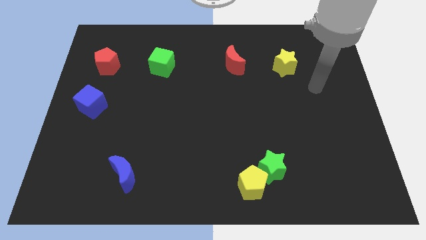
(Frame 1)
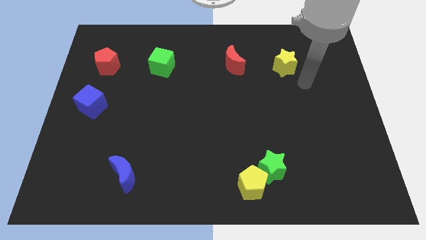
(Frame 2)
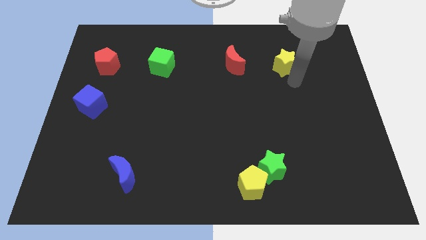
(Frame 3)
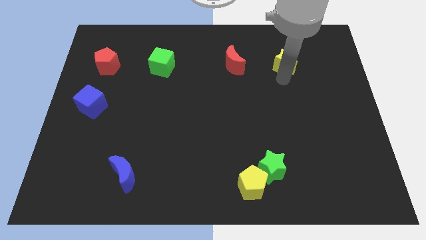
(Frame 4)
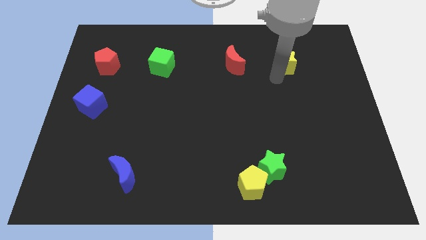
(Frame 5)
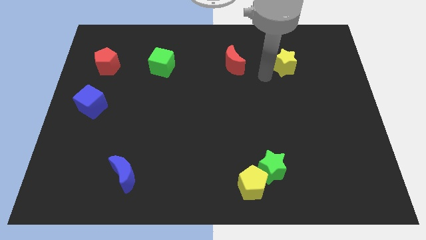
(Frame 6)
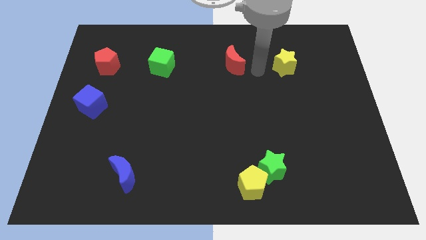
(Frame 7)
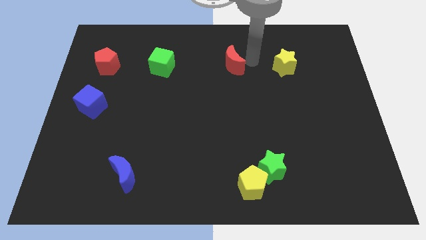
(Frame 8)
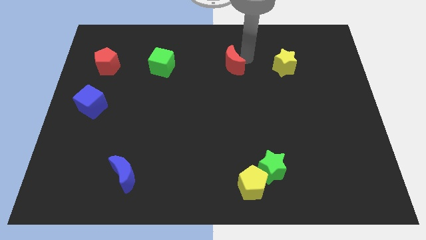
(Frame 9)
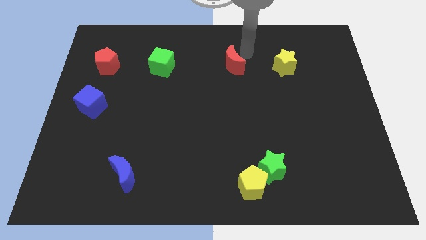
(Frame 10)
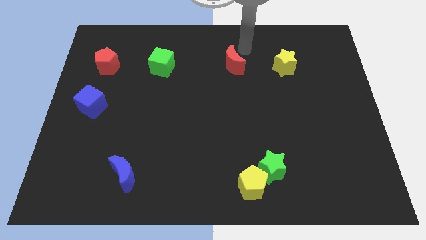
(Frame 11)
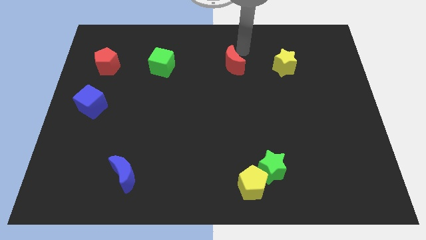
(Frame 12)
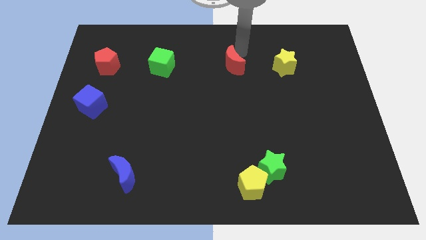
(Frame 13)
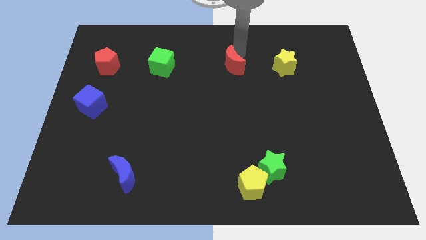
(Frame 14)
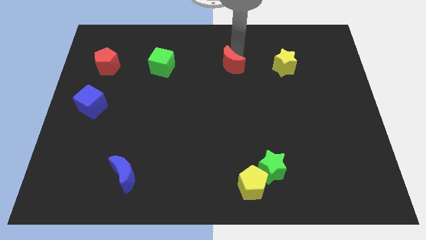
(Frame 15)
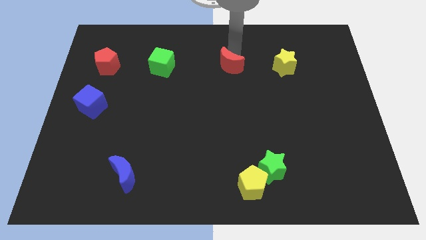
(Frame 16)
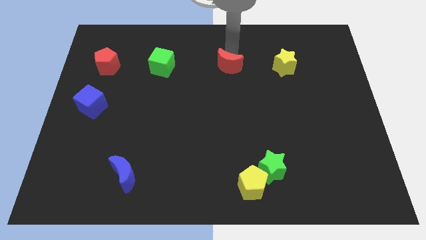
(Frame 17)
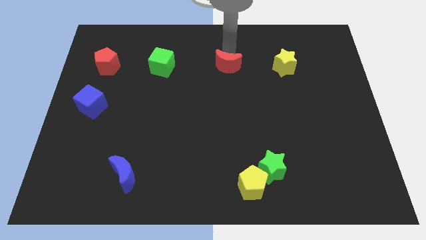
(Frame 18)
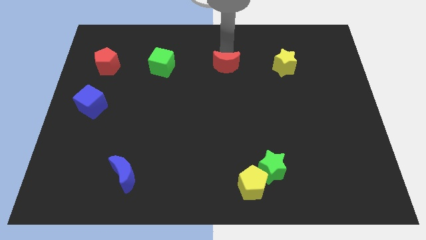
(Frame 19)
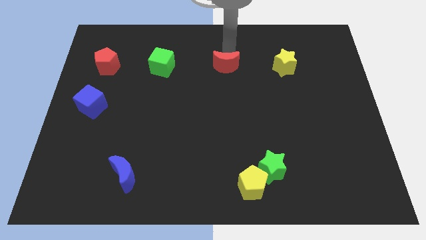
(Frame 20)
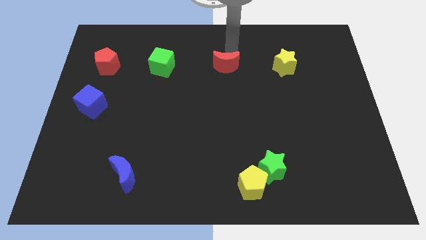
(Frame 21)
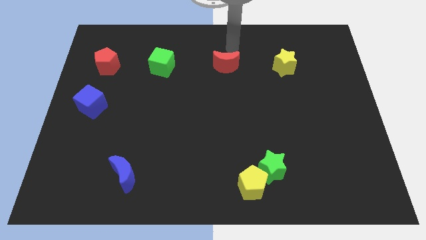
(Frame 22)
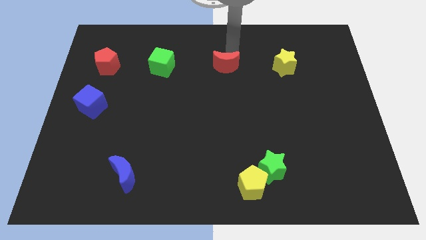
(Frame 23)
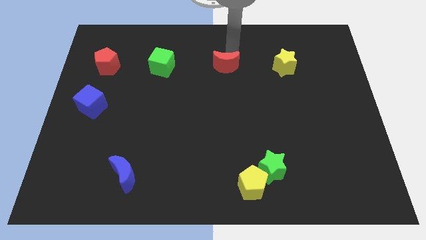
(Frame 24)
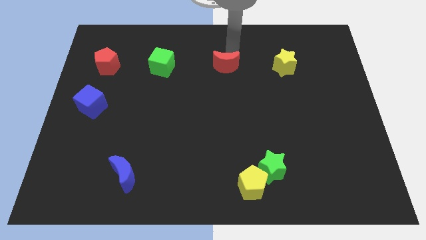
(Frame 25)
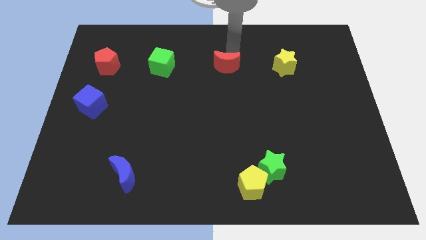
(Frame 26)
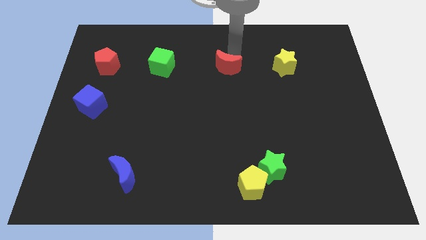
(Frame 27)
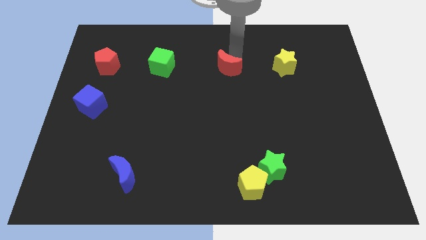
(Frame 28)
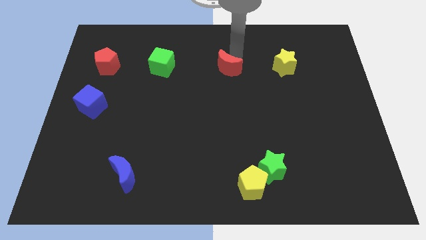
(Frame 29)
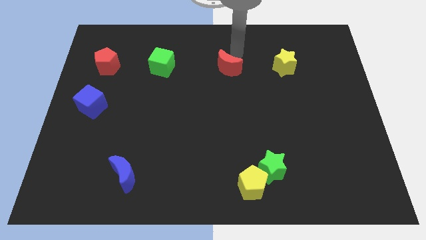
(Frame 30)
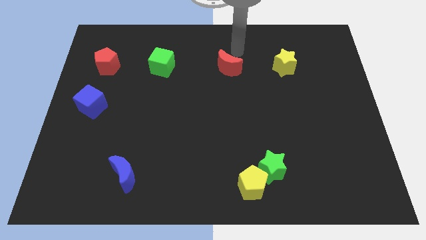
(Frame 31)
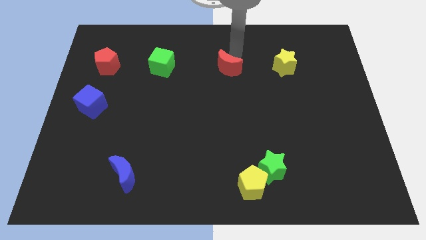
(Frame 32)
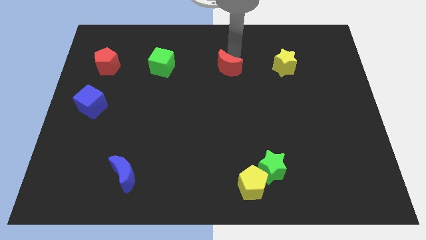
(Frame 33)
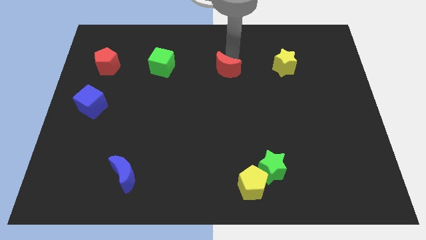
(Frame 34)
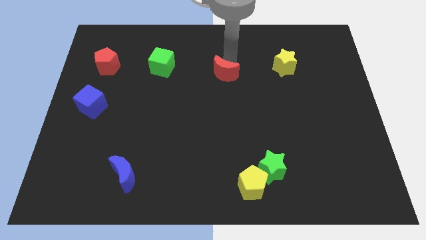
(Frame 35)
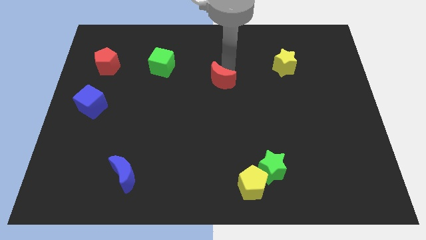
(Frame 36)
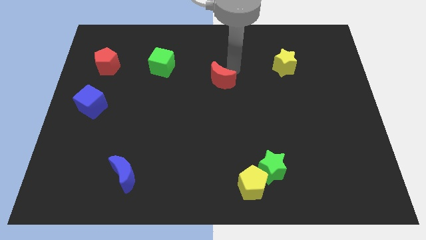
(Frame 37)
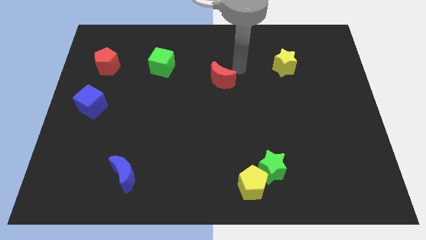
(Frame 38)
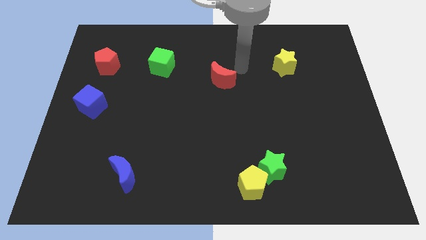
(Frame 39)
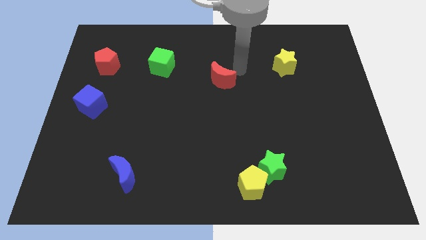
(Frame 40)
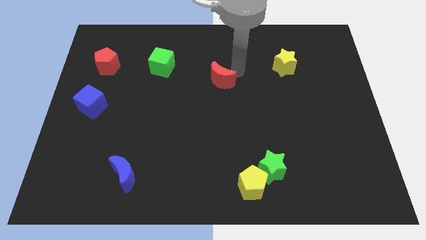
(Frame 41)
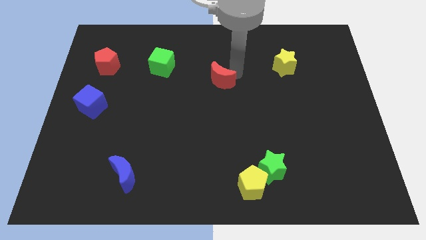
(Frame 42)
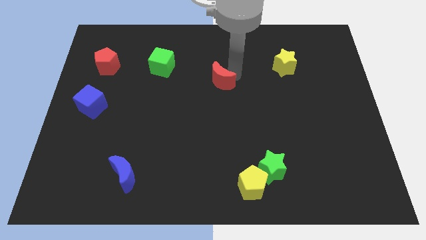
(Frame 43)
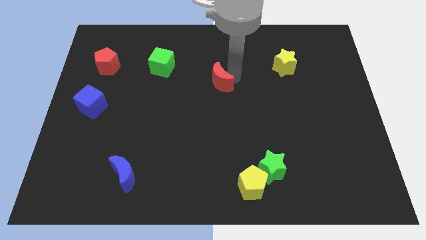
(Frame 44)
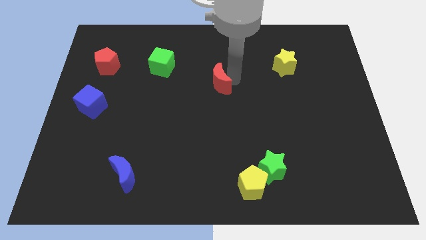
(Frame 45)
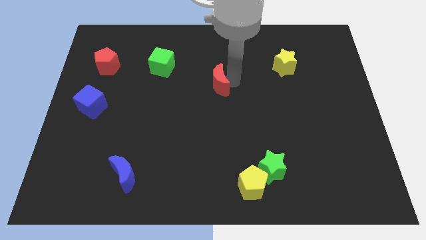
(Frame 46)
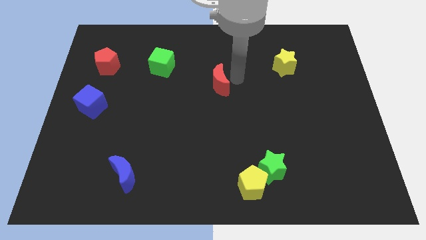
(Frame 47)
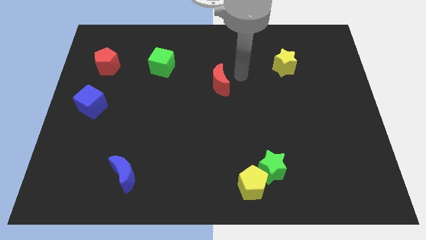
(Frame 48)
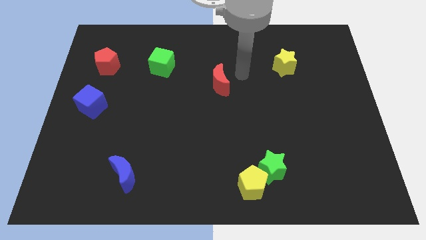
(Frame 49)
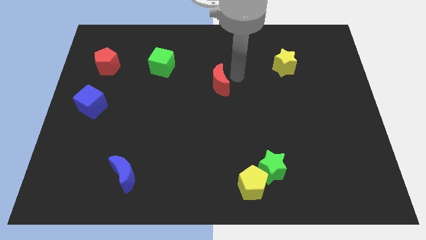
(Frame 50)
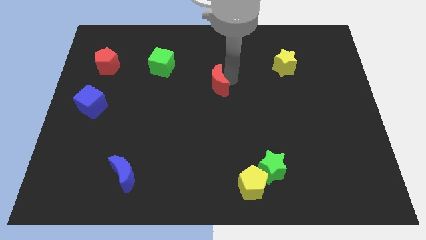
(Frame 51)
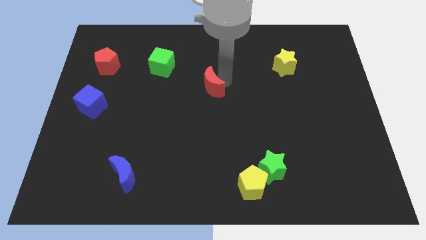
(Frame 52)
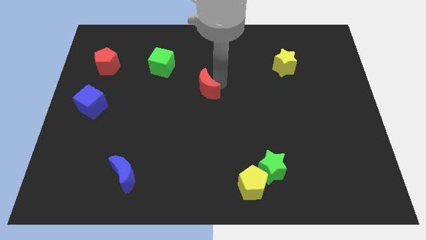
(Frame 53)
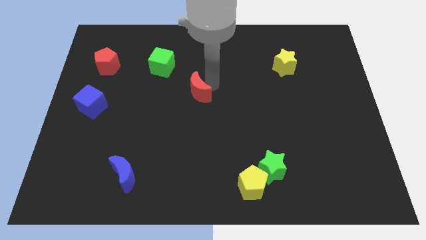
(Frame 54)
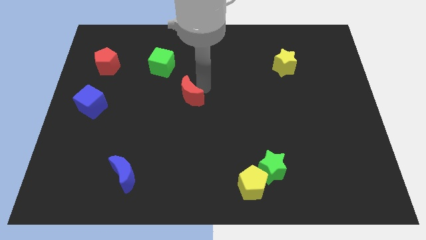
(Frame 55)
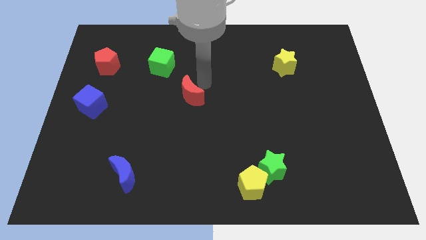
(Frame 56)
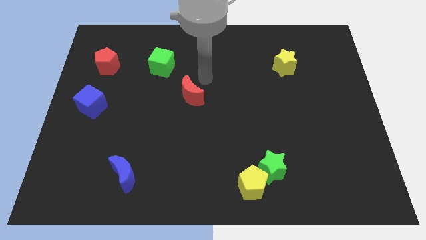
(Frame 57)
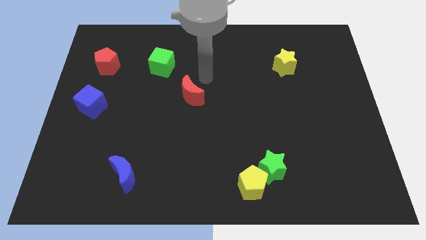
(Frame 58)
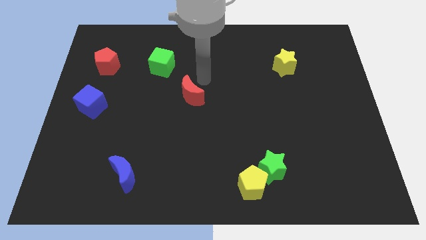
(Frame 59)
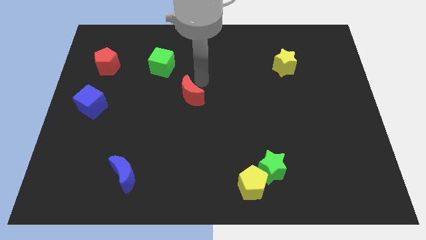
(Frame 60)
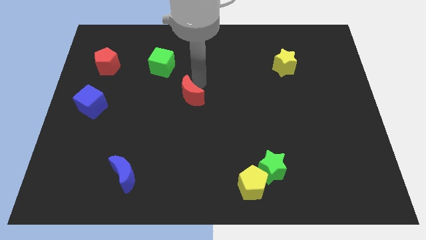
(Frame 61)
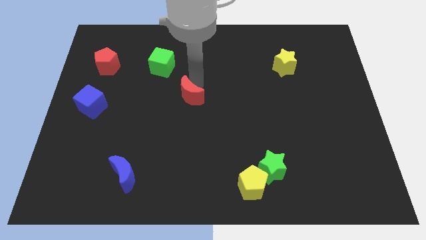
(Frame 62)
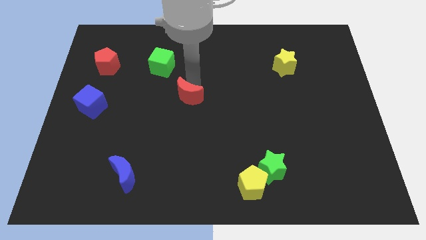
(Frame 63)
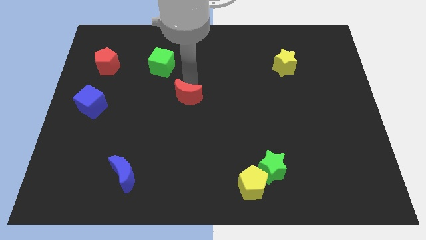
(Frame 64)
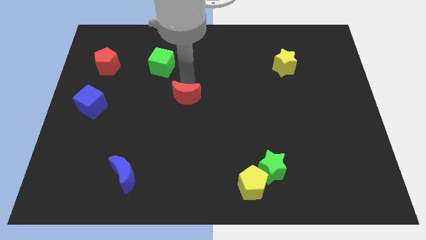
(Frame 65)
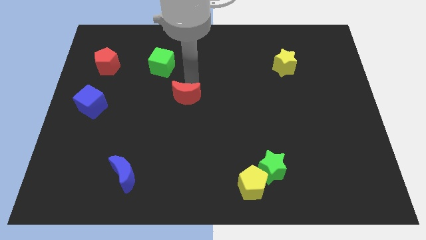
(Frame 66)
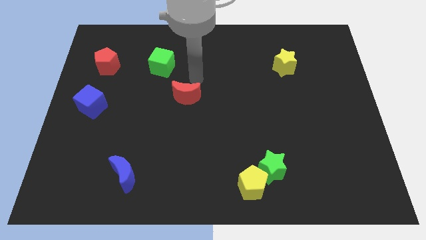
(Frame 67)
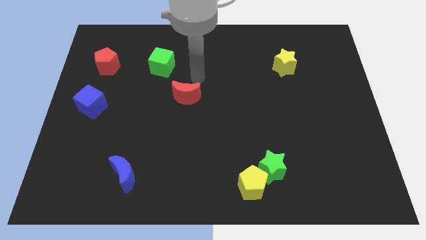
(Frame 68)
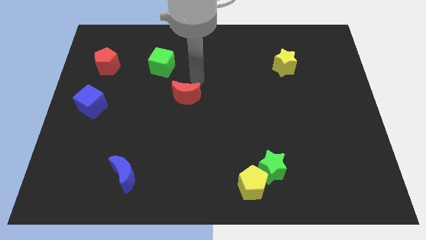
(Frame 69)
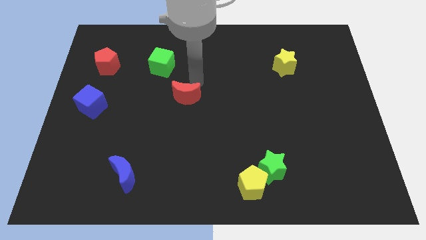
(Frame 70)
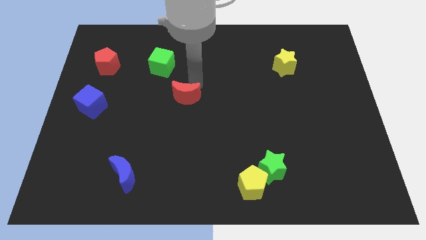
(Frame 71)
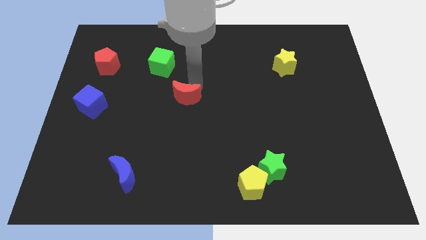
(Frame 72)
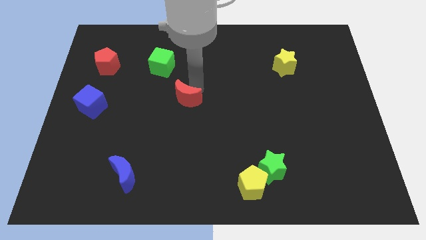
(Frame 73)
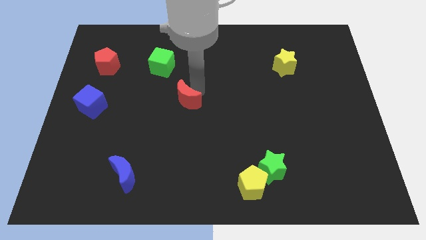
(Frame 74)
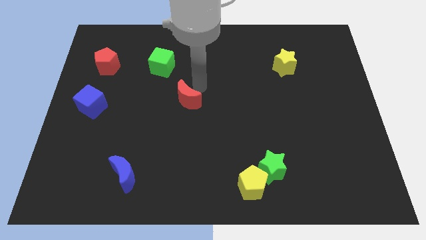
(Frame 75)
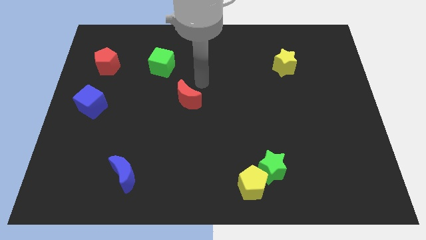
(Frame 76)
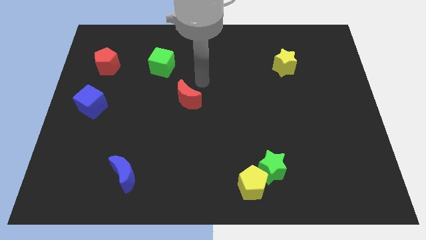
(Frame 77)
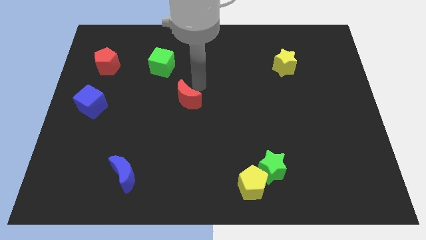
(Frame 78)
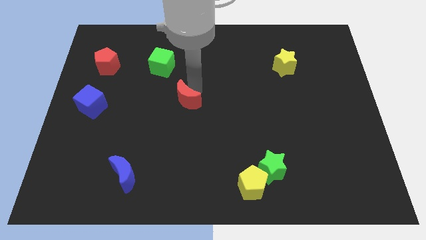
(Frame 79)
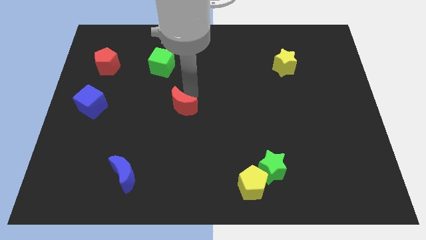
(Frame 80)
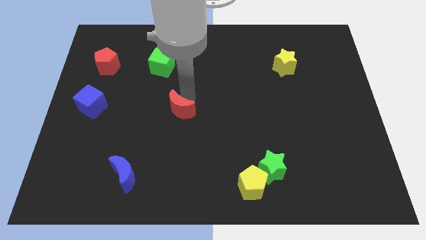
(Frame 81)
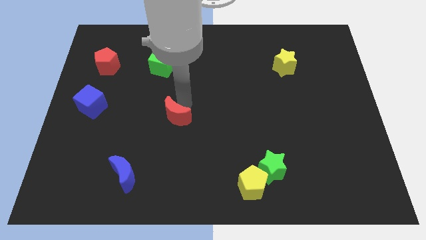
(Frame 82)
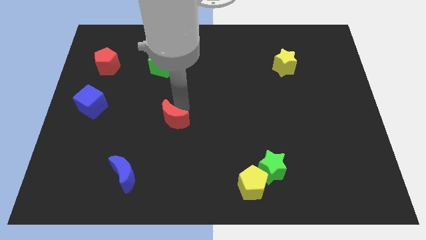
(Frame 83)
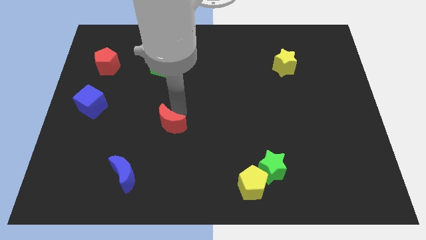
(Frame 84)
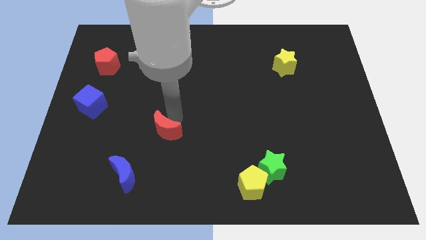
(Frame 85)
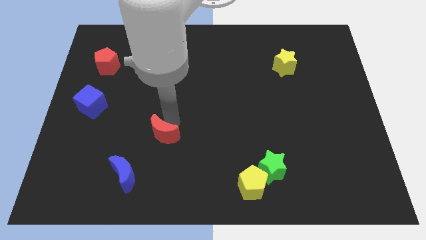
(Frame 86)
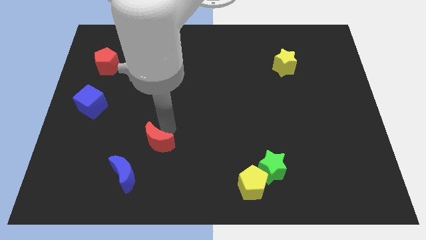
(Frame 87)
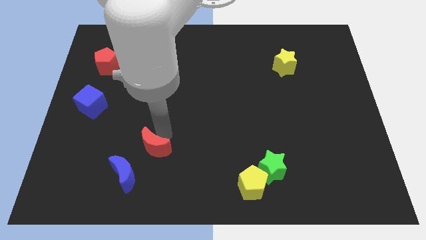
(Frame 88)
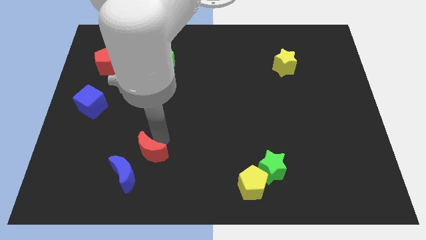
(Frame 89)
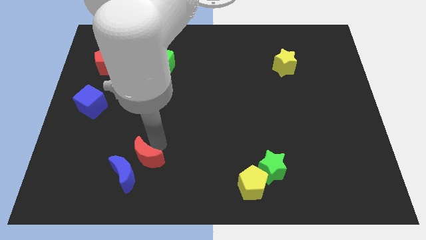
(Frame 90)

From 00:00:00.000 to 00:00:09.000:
slide the red moon next to the blue moon
